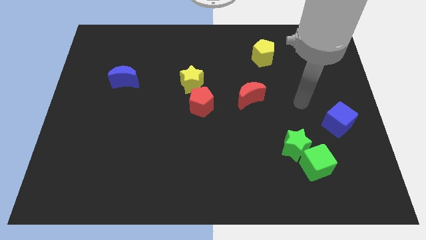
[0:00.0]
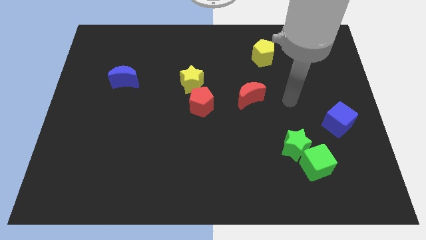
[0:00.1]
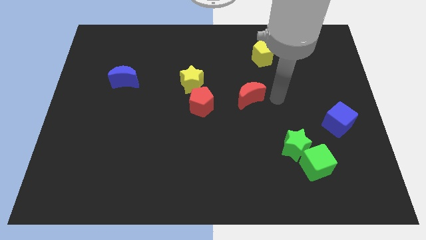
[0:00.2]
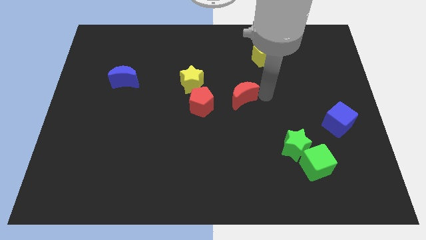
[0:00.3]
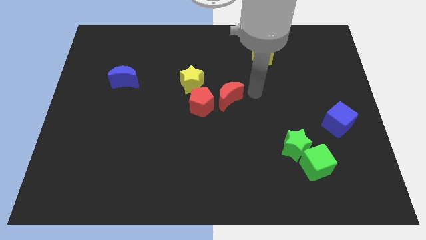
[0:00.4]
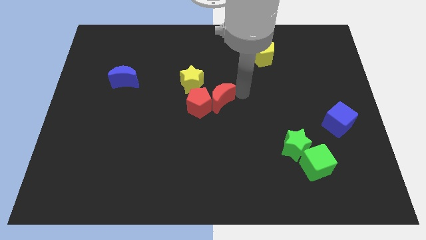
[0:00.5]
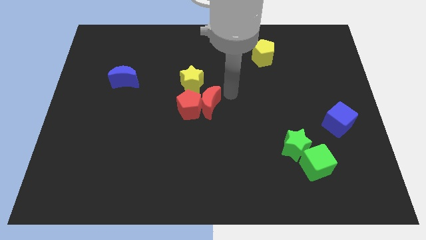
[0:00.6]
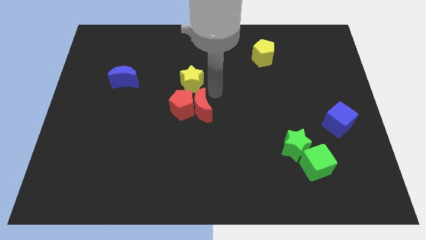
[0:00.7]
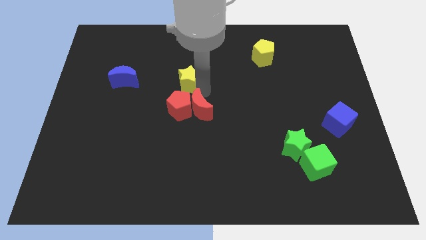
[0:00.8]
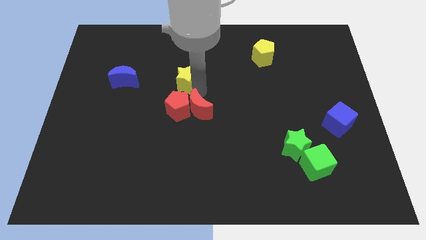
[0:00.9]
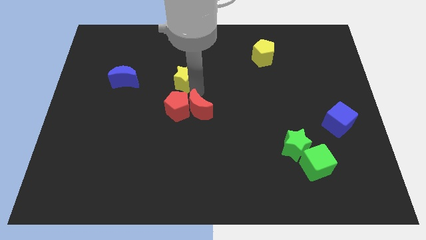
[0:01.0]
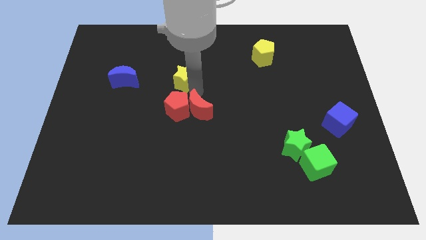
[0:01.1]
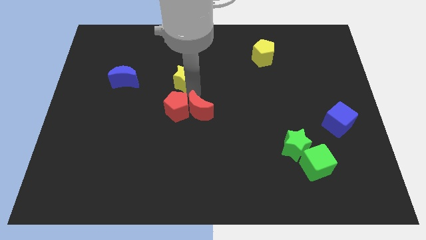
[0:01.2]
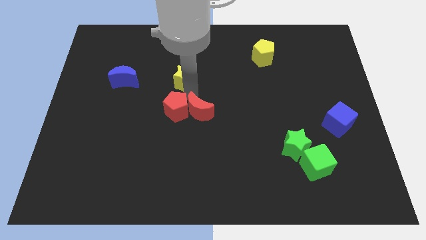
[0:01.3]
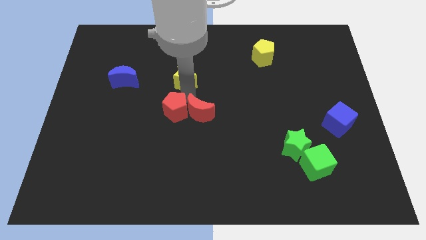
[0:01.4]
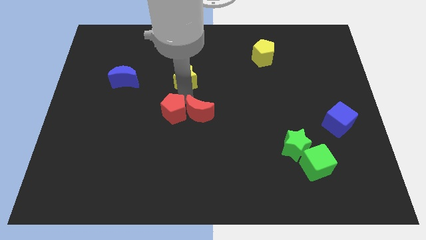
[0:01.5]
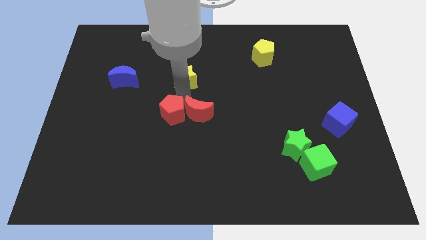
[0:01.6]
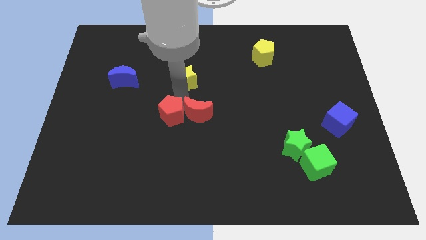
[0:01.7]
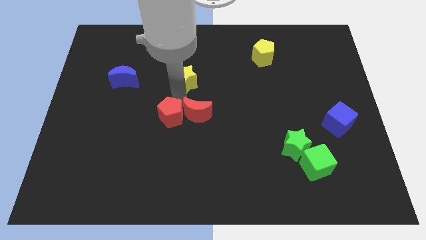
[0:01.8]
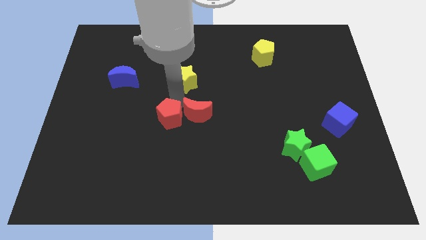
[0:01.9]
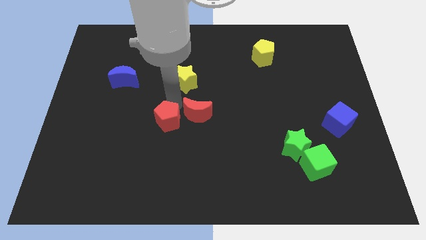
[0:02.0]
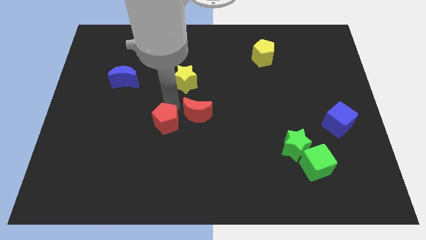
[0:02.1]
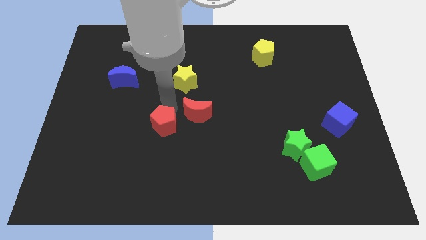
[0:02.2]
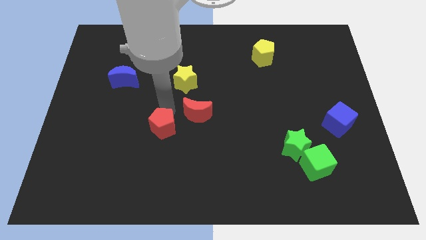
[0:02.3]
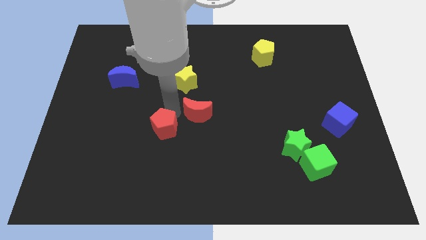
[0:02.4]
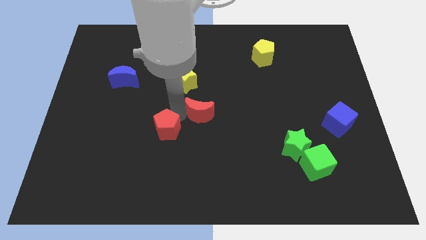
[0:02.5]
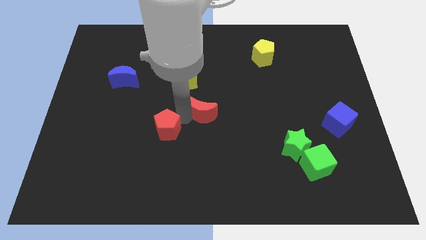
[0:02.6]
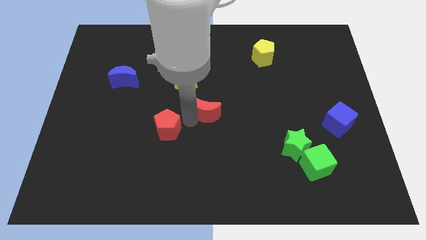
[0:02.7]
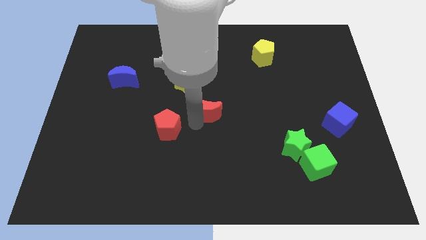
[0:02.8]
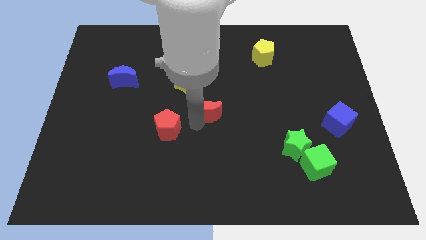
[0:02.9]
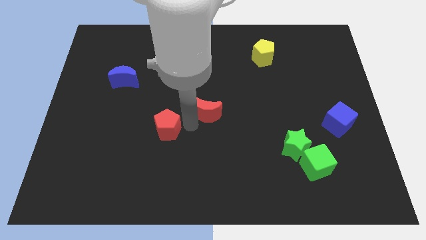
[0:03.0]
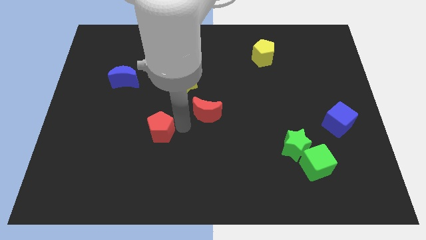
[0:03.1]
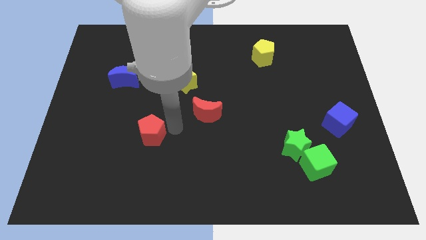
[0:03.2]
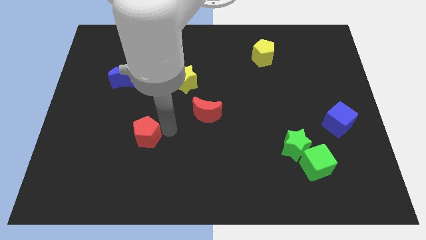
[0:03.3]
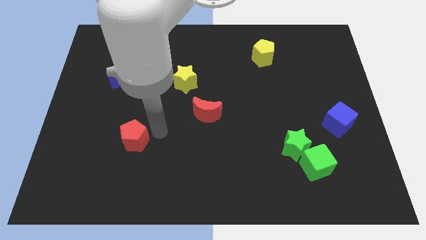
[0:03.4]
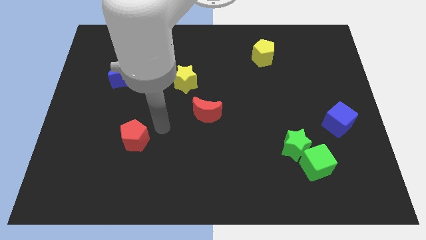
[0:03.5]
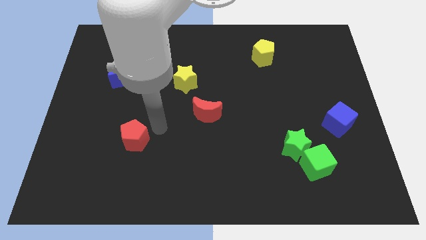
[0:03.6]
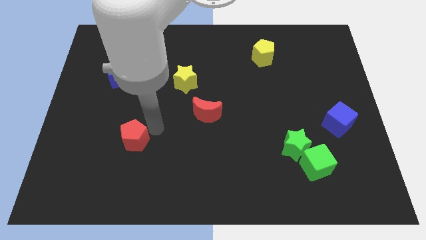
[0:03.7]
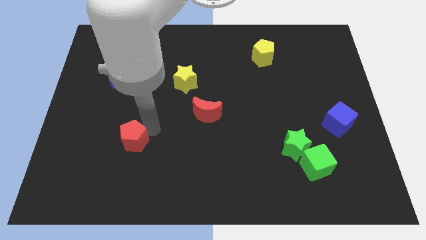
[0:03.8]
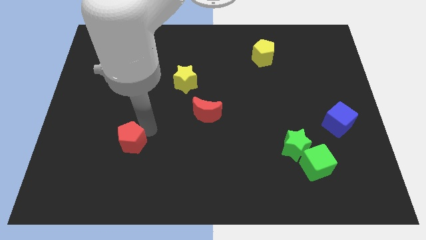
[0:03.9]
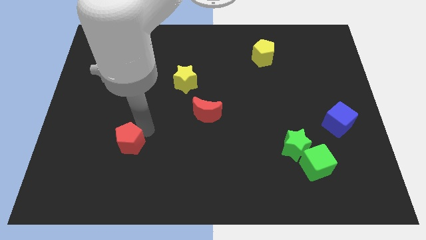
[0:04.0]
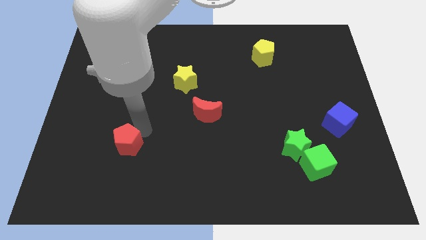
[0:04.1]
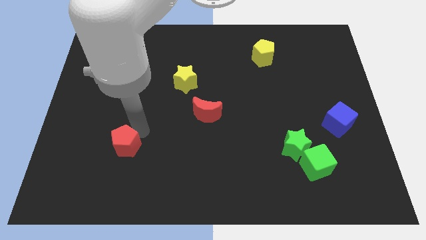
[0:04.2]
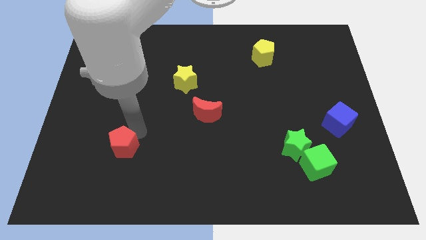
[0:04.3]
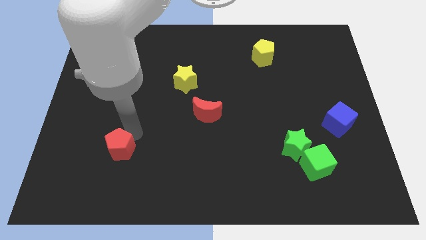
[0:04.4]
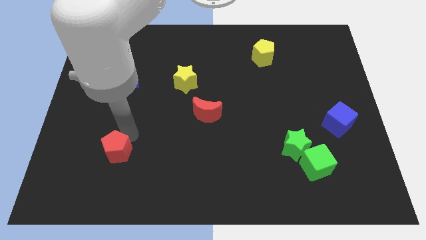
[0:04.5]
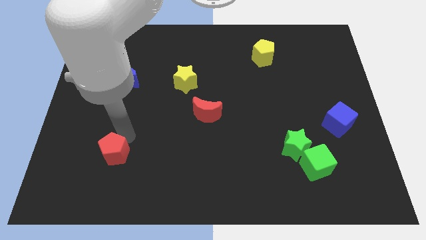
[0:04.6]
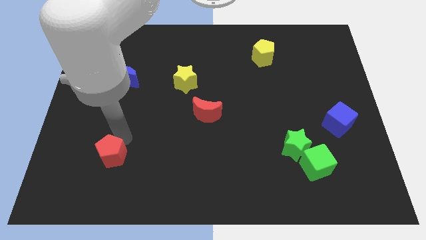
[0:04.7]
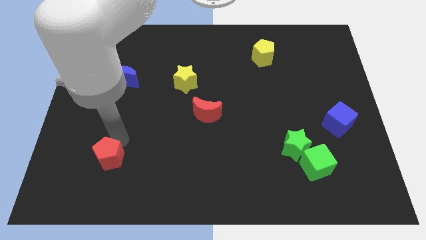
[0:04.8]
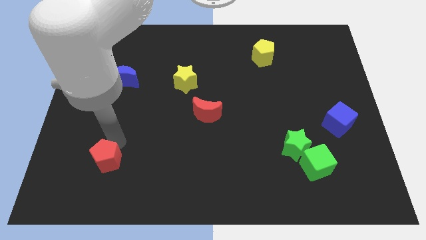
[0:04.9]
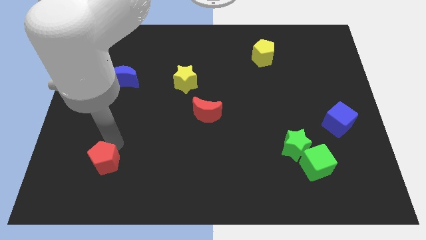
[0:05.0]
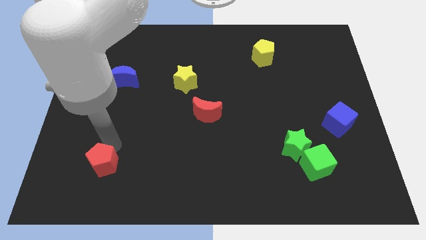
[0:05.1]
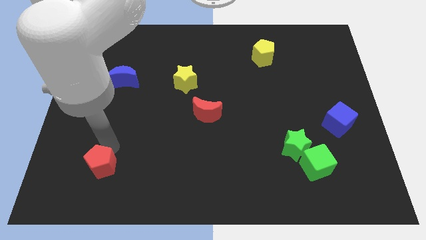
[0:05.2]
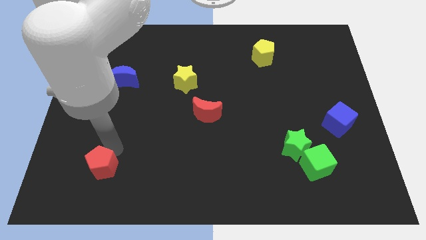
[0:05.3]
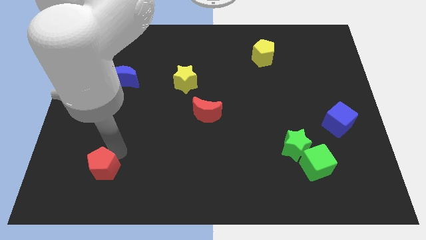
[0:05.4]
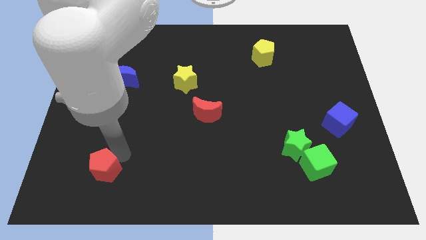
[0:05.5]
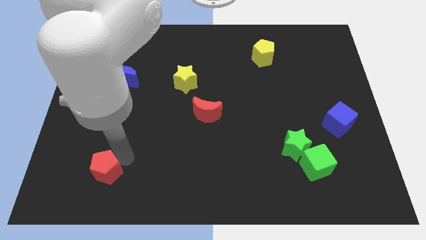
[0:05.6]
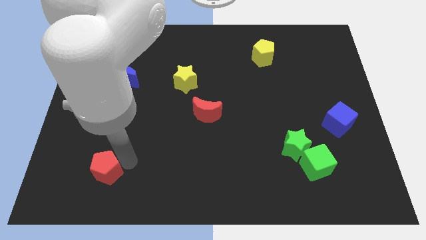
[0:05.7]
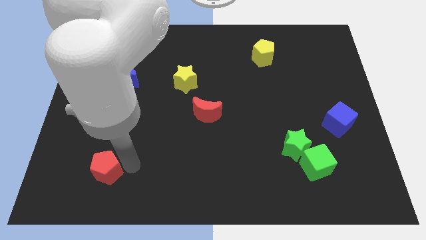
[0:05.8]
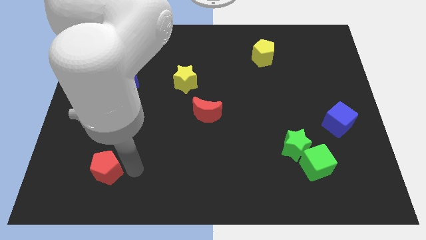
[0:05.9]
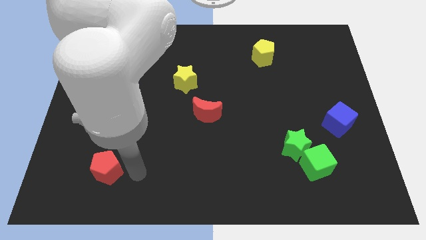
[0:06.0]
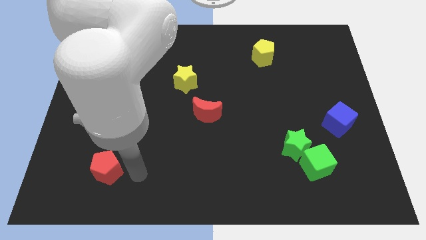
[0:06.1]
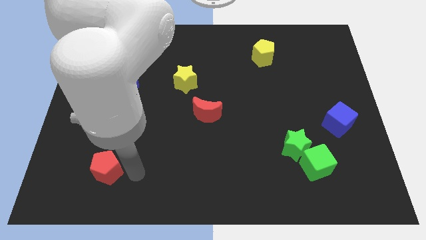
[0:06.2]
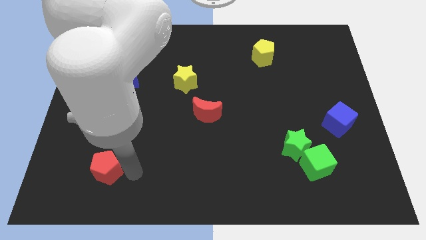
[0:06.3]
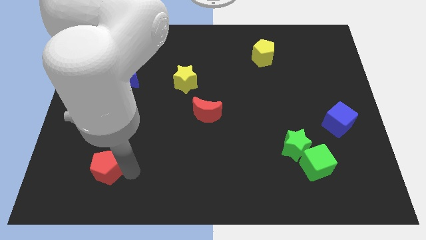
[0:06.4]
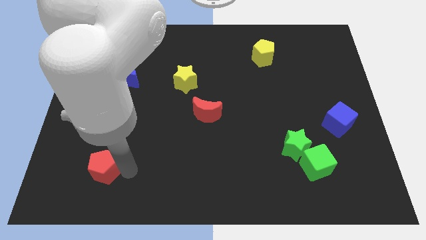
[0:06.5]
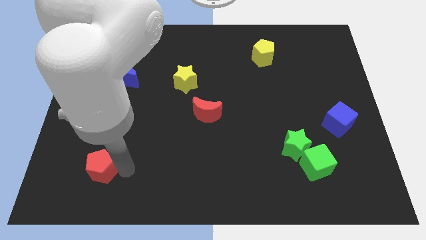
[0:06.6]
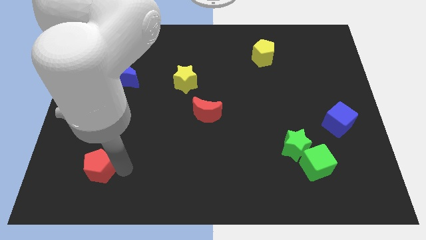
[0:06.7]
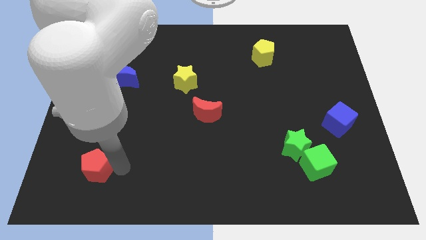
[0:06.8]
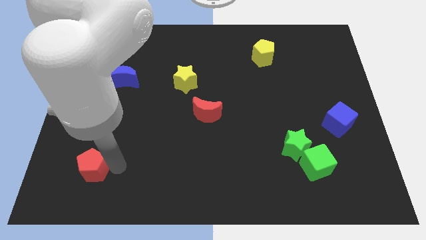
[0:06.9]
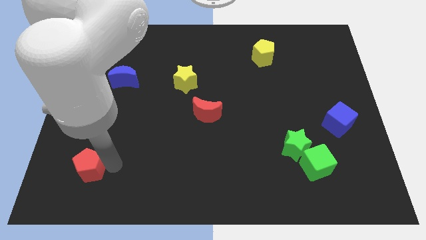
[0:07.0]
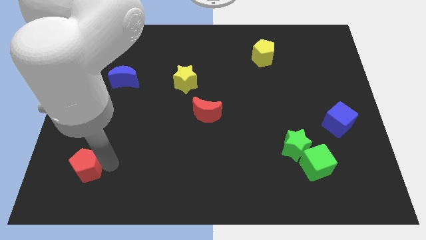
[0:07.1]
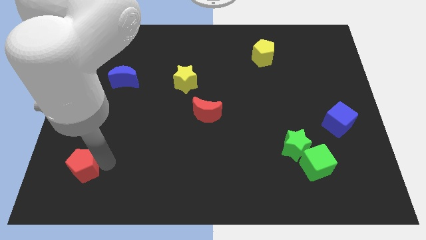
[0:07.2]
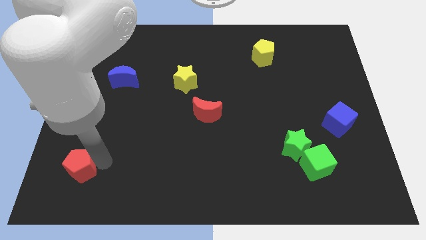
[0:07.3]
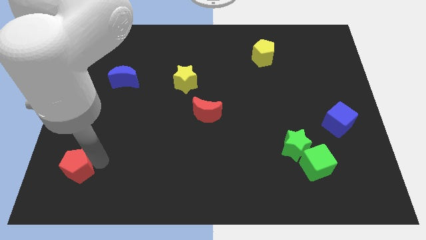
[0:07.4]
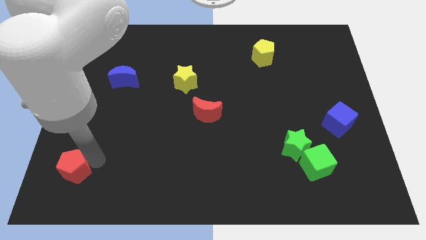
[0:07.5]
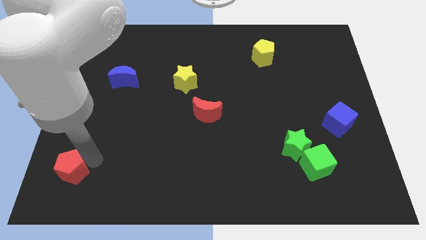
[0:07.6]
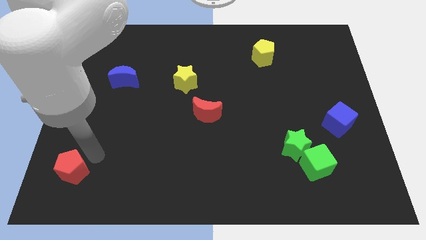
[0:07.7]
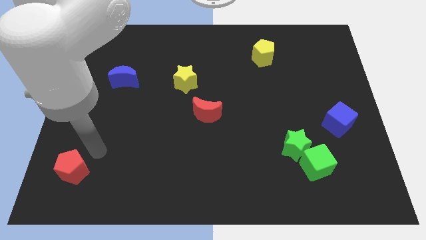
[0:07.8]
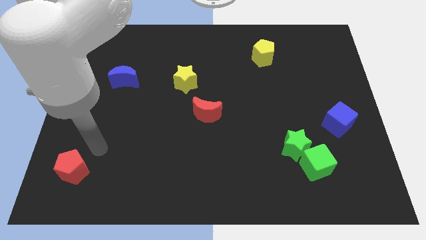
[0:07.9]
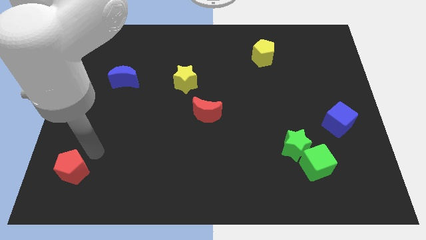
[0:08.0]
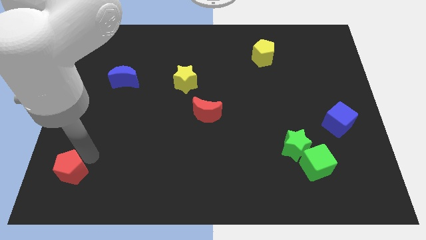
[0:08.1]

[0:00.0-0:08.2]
put the red pentagon to the bottom left of the board
